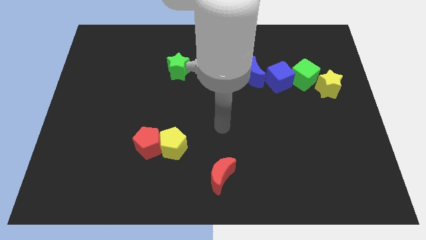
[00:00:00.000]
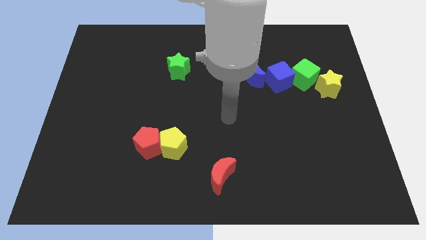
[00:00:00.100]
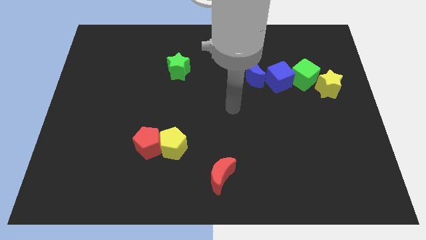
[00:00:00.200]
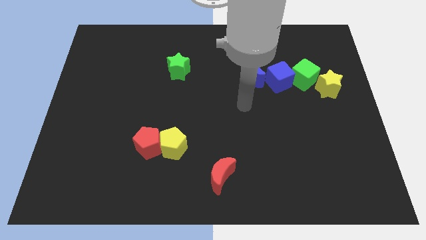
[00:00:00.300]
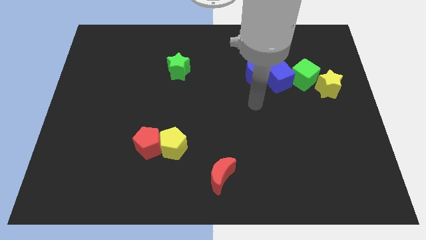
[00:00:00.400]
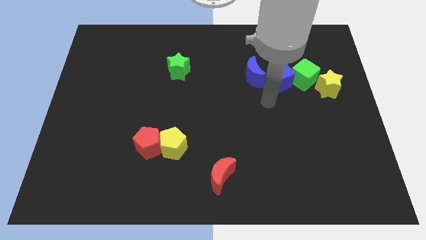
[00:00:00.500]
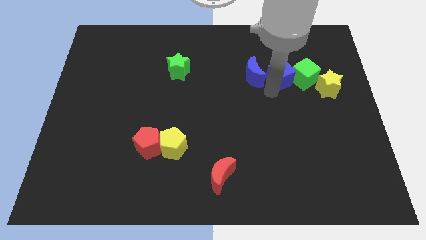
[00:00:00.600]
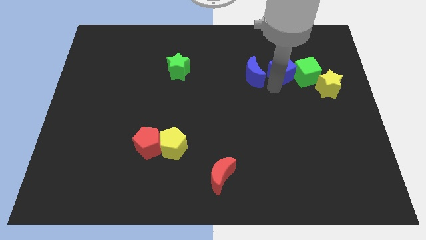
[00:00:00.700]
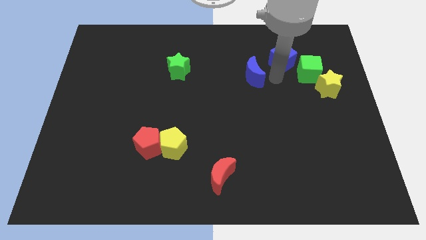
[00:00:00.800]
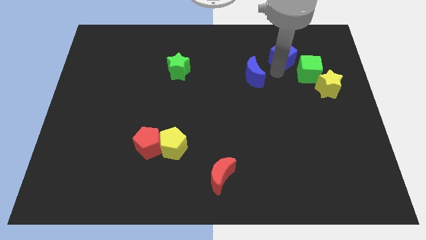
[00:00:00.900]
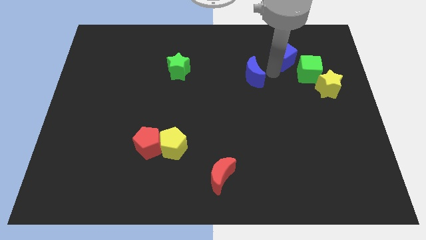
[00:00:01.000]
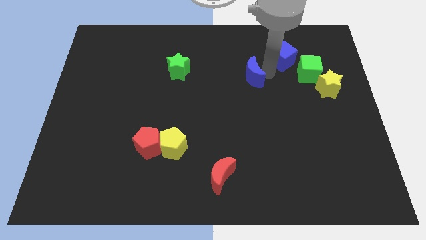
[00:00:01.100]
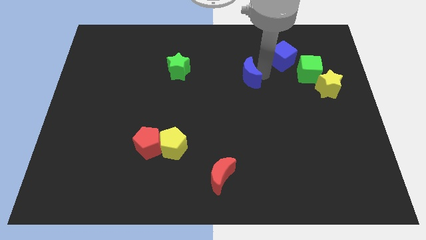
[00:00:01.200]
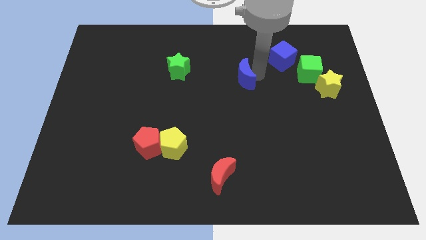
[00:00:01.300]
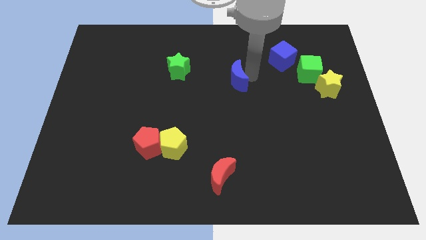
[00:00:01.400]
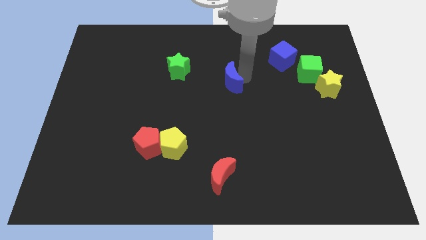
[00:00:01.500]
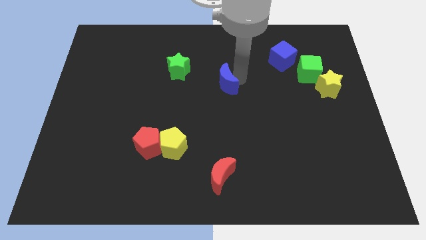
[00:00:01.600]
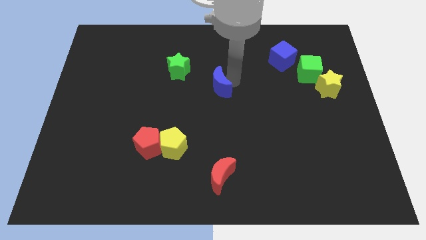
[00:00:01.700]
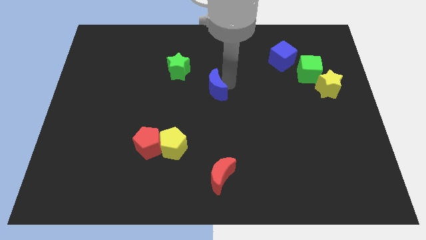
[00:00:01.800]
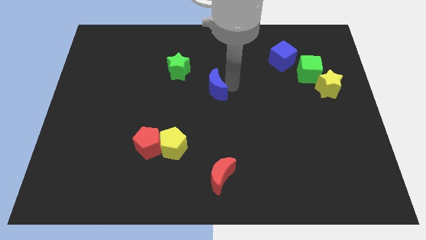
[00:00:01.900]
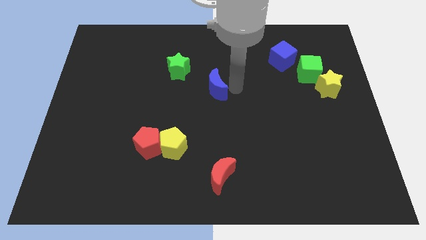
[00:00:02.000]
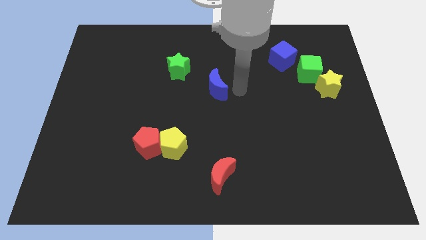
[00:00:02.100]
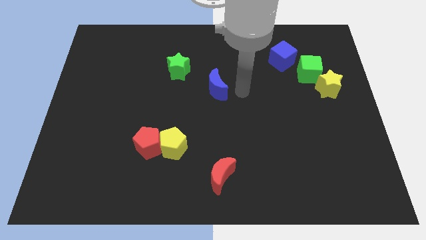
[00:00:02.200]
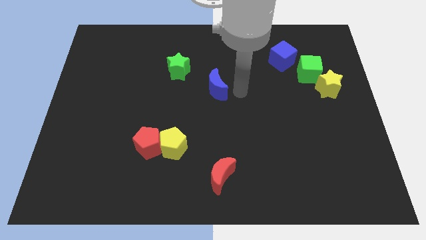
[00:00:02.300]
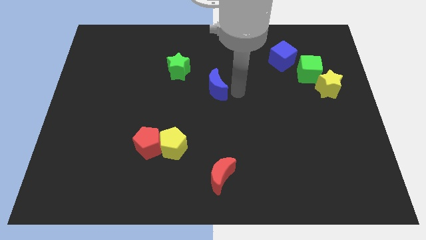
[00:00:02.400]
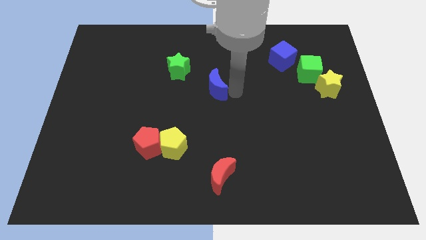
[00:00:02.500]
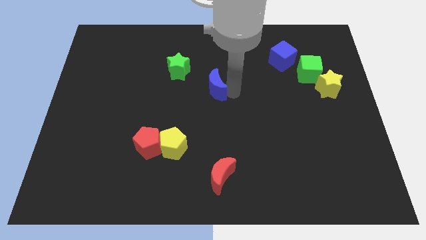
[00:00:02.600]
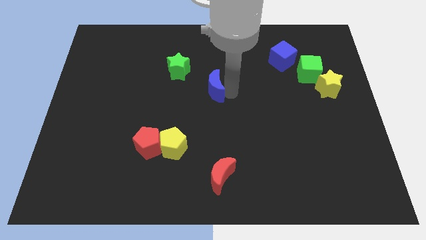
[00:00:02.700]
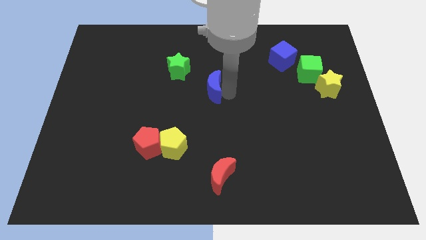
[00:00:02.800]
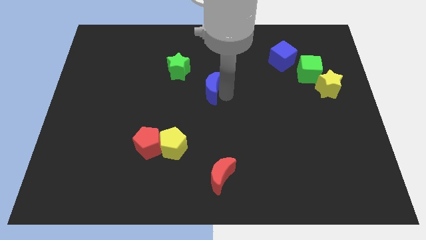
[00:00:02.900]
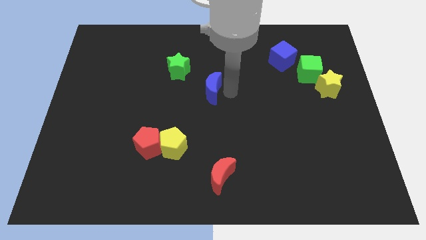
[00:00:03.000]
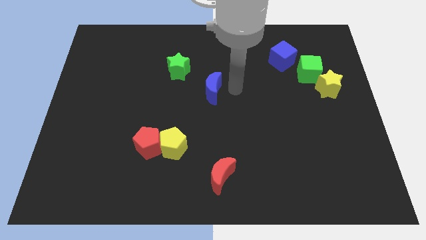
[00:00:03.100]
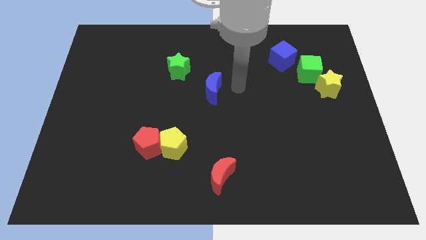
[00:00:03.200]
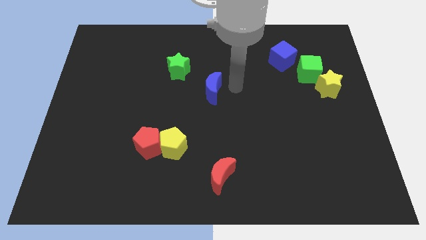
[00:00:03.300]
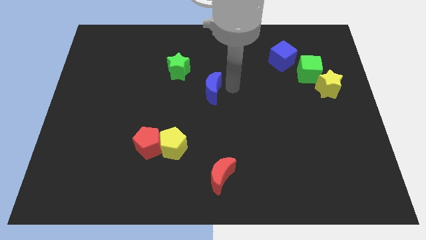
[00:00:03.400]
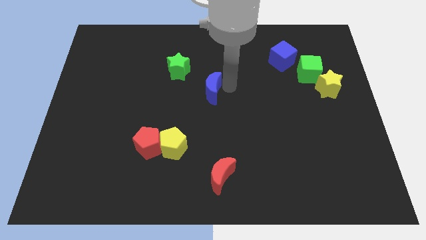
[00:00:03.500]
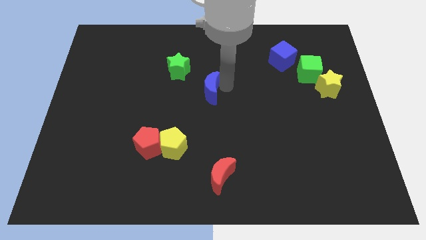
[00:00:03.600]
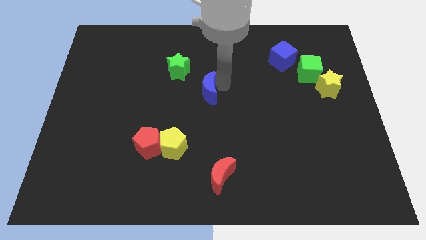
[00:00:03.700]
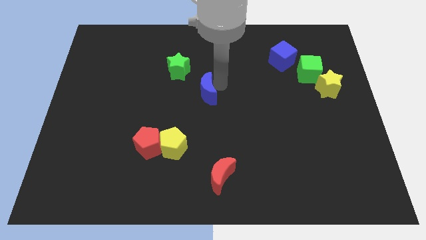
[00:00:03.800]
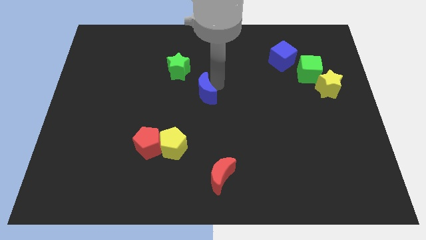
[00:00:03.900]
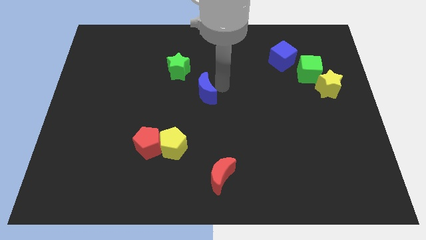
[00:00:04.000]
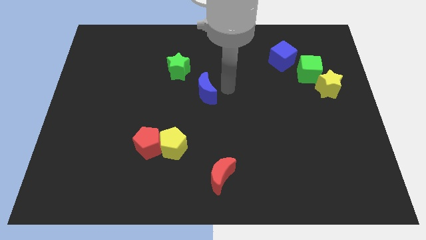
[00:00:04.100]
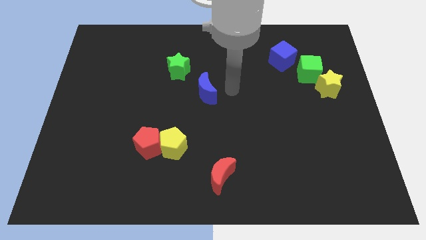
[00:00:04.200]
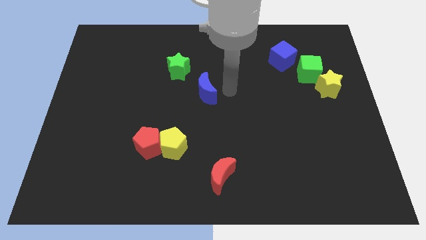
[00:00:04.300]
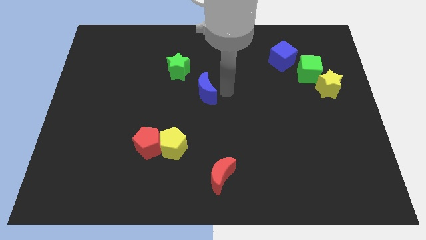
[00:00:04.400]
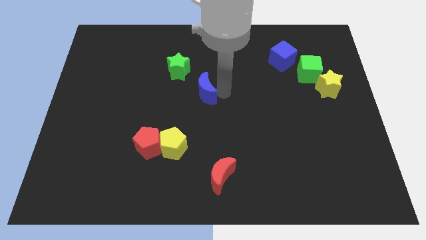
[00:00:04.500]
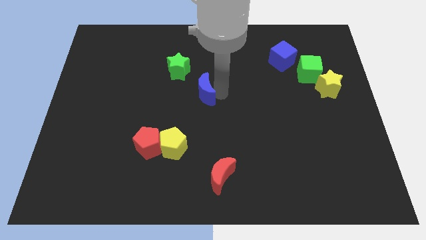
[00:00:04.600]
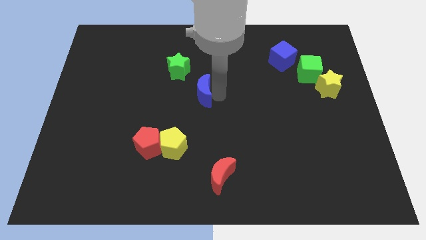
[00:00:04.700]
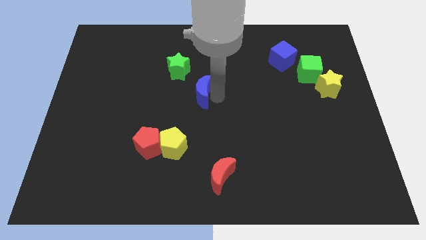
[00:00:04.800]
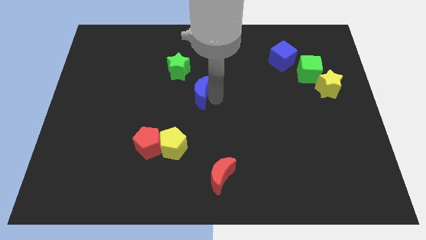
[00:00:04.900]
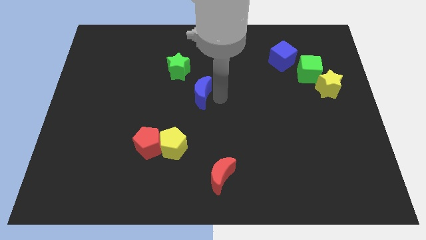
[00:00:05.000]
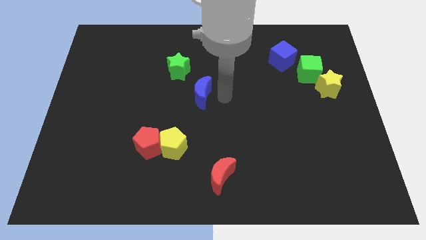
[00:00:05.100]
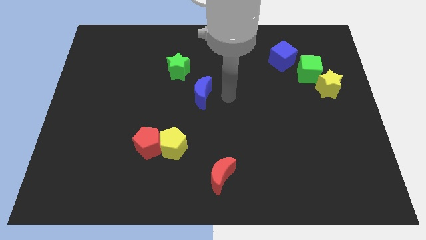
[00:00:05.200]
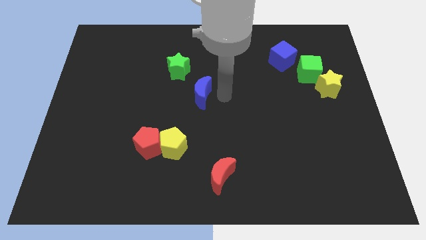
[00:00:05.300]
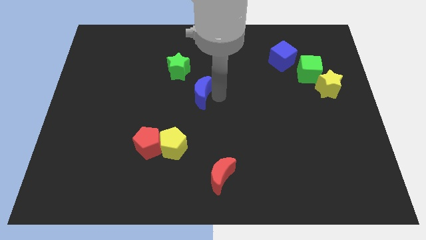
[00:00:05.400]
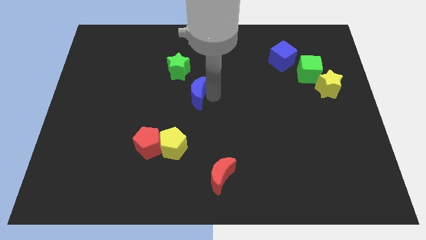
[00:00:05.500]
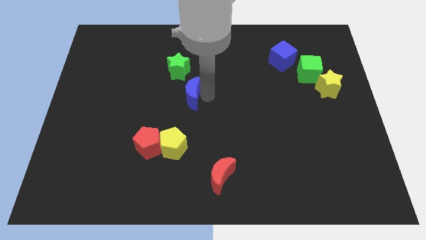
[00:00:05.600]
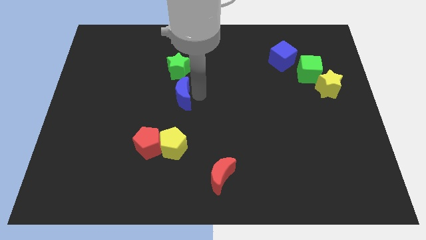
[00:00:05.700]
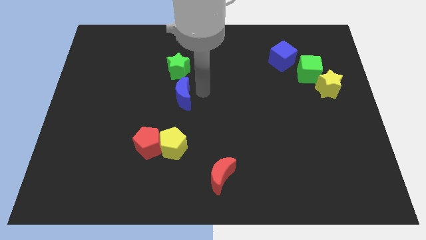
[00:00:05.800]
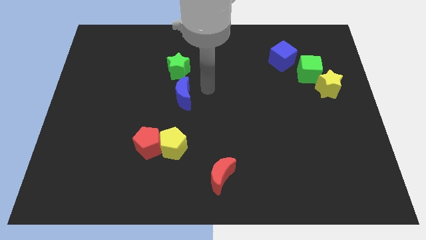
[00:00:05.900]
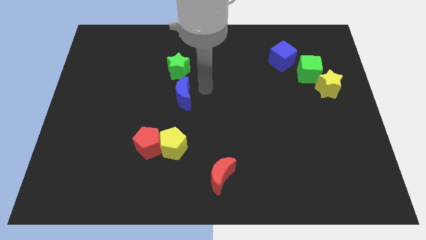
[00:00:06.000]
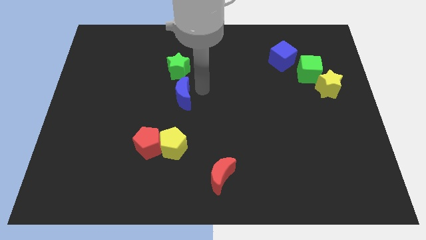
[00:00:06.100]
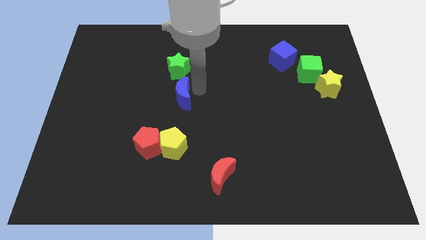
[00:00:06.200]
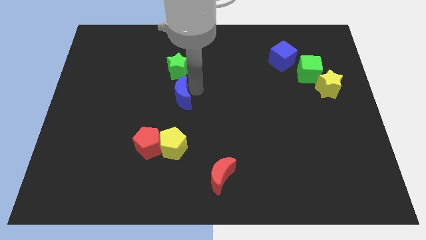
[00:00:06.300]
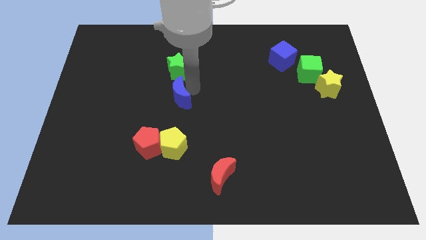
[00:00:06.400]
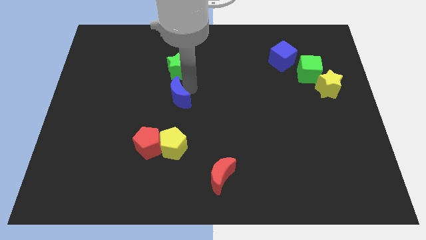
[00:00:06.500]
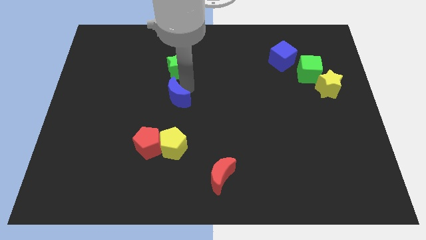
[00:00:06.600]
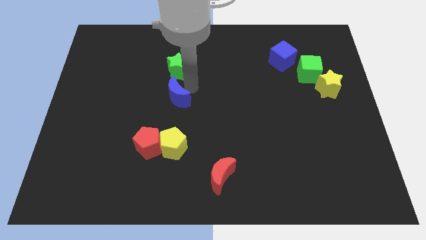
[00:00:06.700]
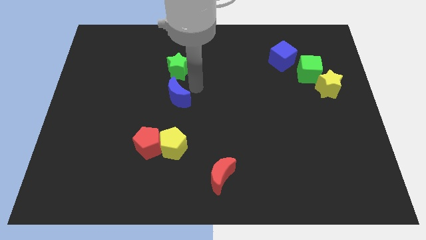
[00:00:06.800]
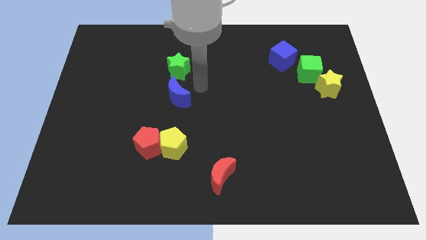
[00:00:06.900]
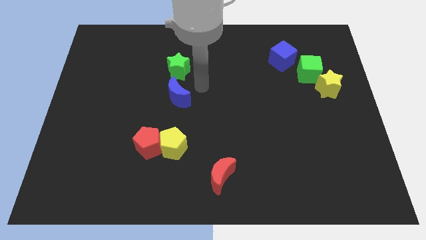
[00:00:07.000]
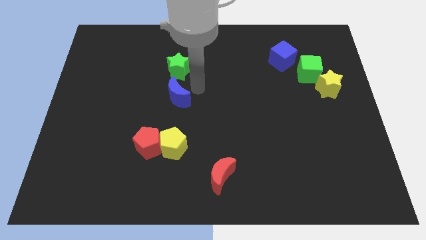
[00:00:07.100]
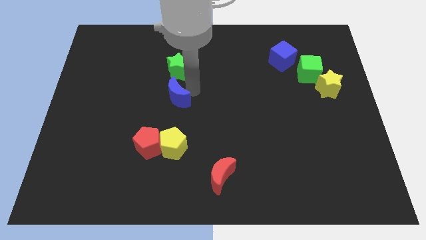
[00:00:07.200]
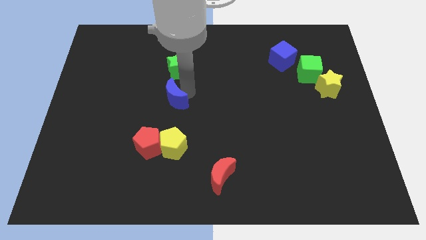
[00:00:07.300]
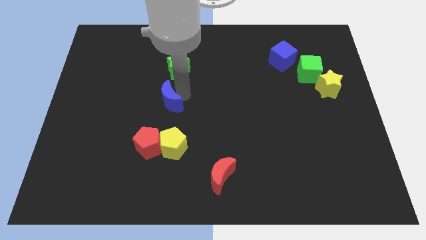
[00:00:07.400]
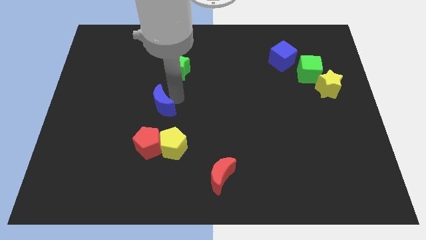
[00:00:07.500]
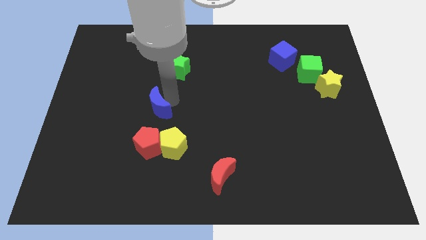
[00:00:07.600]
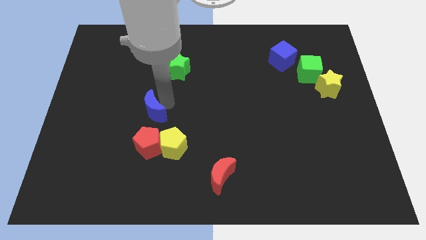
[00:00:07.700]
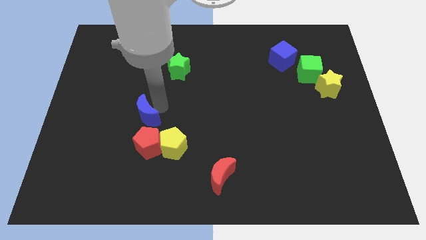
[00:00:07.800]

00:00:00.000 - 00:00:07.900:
push the blue moon to the top left side of the red pentagon
